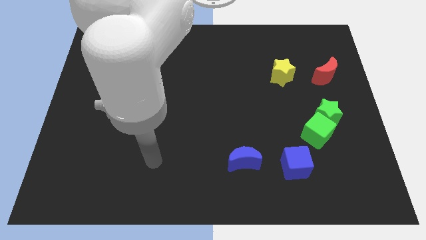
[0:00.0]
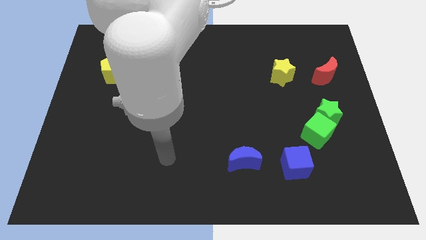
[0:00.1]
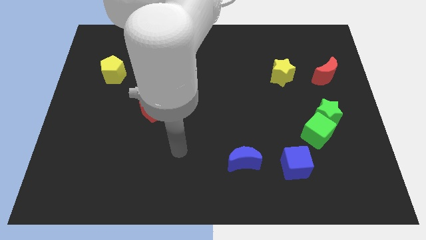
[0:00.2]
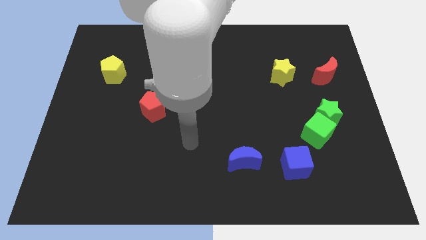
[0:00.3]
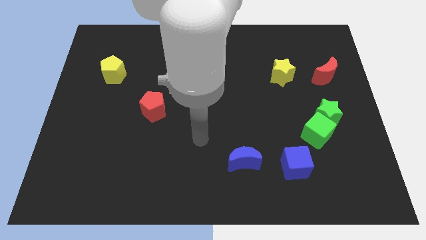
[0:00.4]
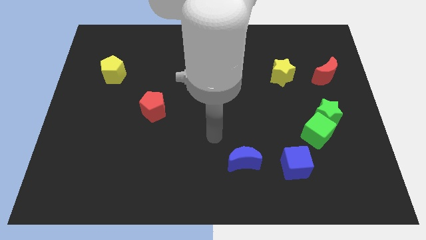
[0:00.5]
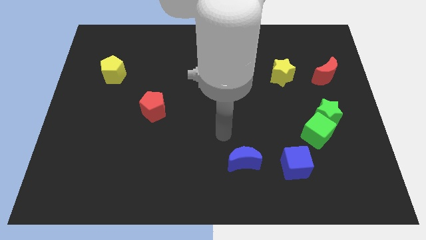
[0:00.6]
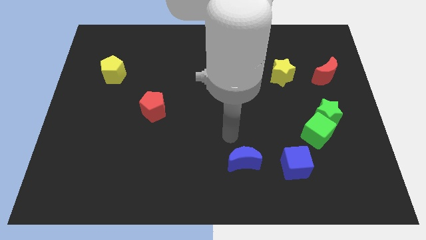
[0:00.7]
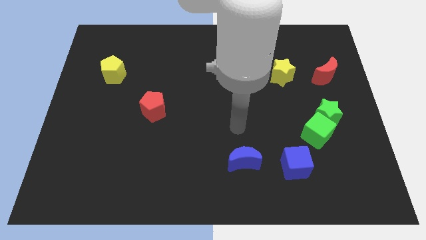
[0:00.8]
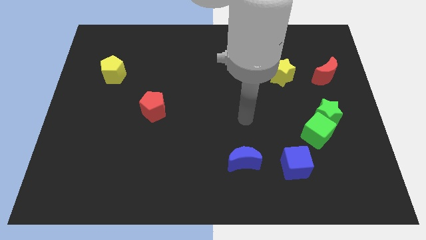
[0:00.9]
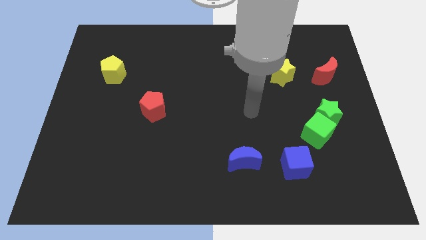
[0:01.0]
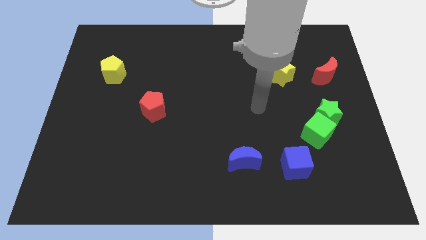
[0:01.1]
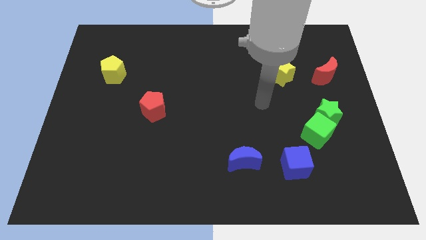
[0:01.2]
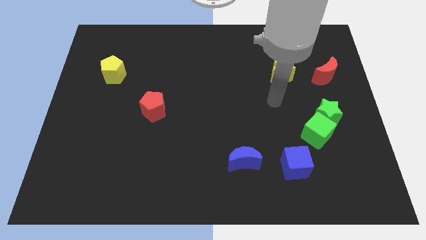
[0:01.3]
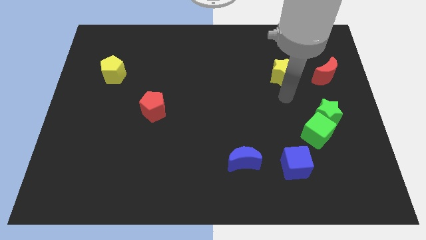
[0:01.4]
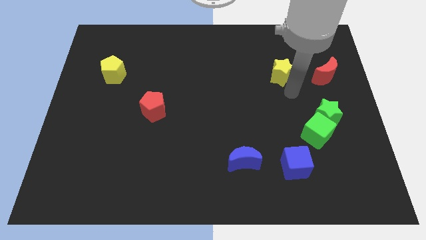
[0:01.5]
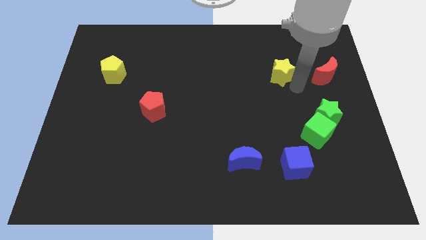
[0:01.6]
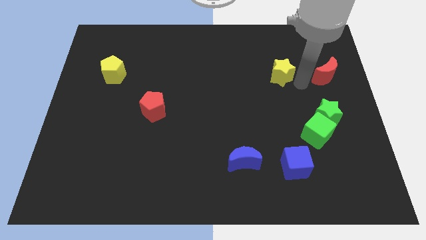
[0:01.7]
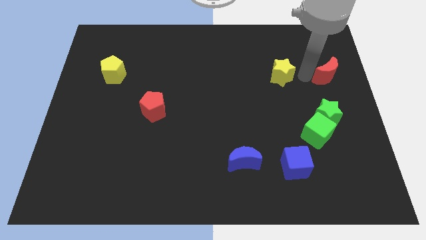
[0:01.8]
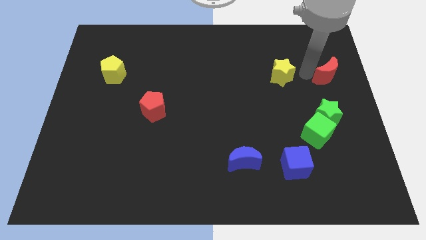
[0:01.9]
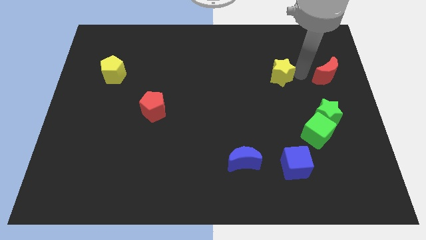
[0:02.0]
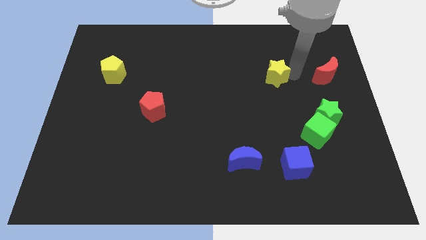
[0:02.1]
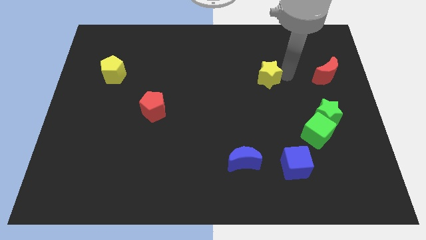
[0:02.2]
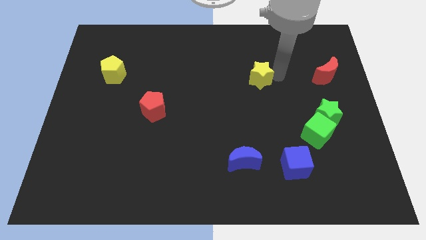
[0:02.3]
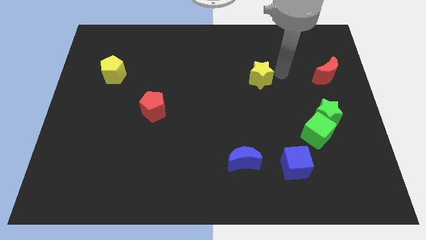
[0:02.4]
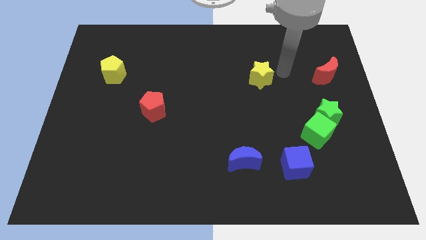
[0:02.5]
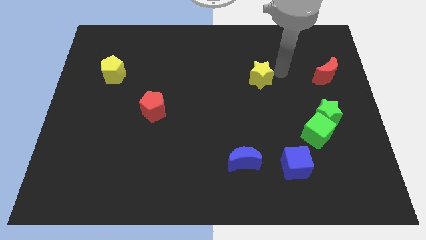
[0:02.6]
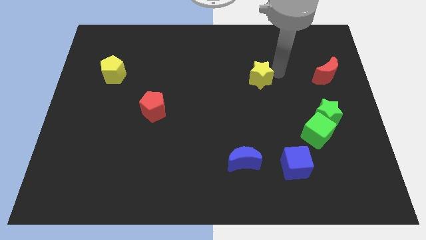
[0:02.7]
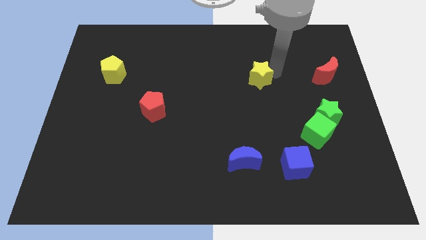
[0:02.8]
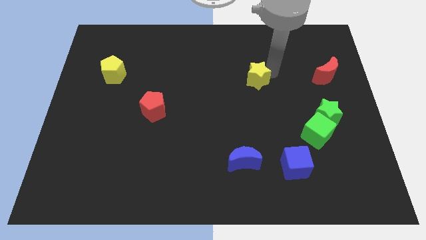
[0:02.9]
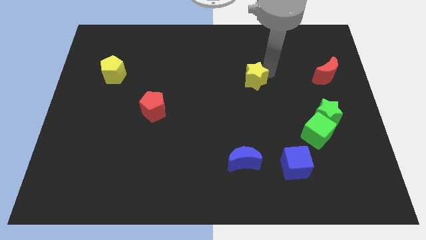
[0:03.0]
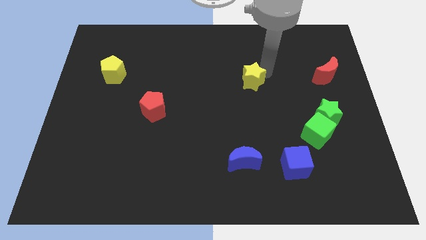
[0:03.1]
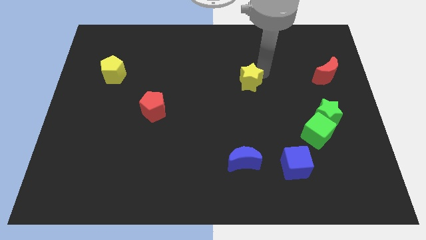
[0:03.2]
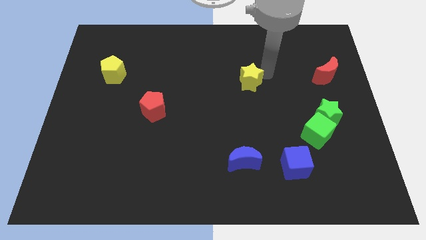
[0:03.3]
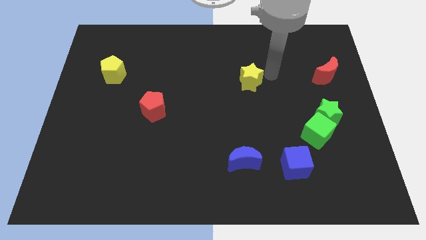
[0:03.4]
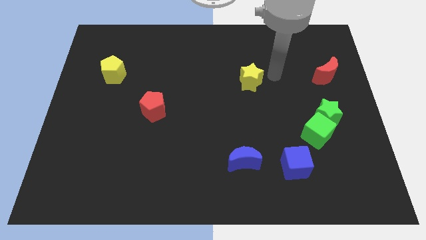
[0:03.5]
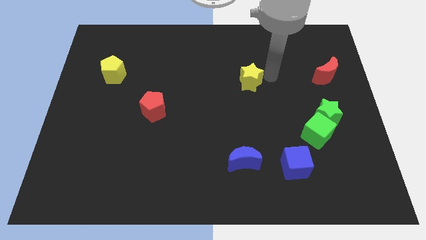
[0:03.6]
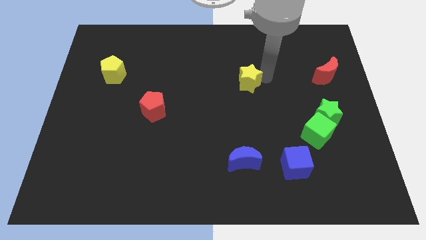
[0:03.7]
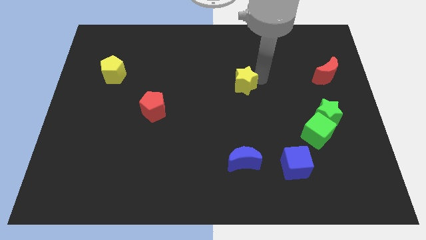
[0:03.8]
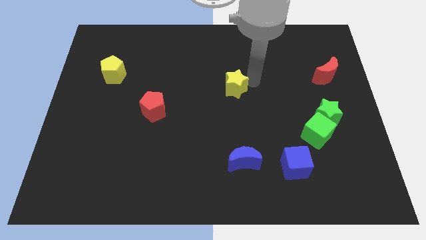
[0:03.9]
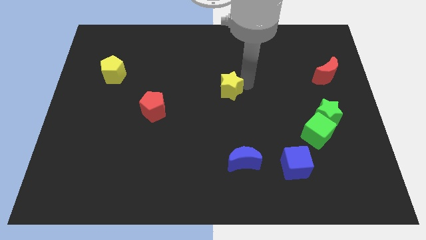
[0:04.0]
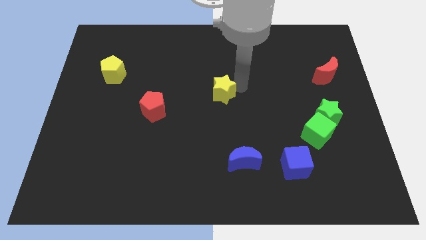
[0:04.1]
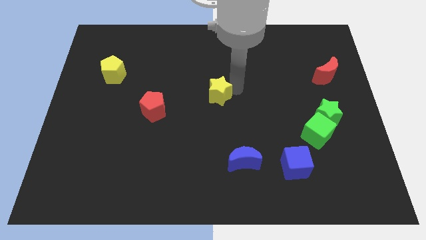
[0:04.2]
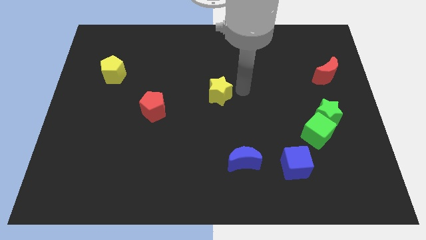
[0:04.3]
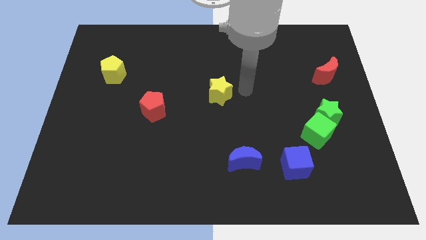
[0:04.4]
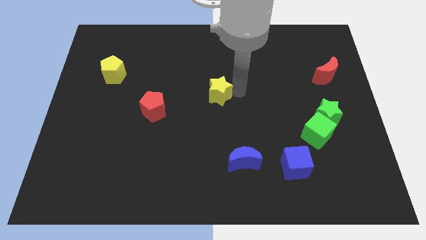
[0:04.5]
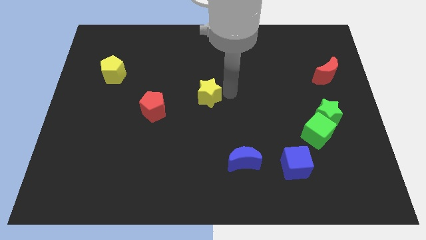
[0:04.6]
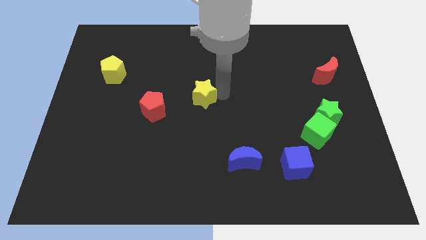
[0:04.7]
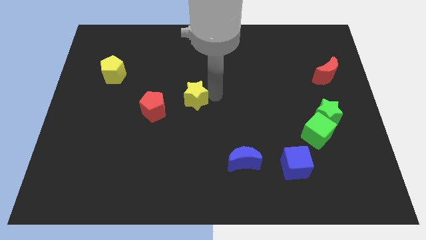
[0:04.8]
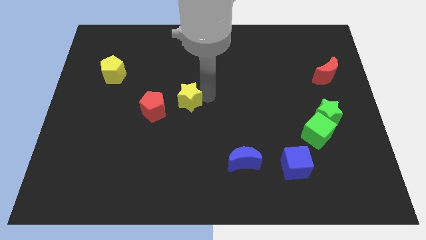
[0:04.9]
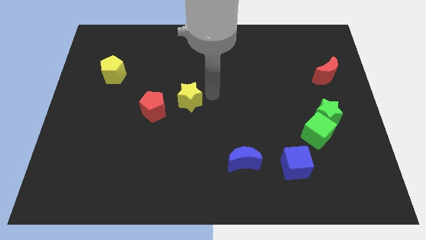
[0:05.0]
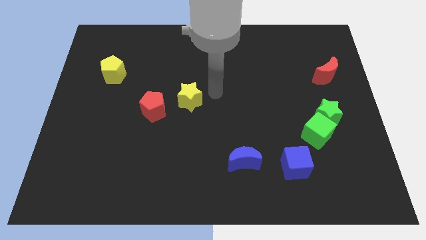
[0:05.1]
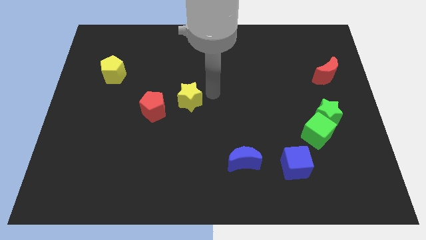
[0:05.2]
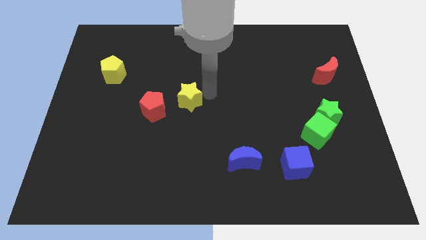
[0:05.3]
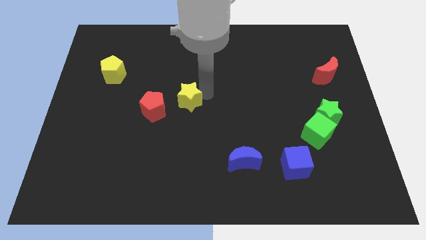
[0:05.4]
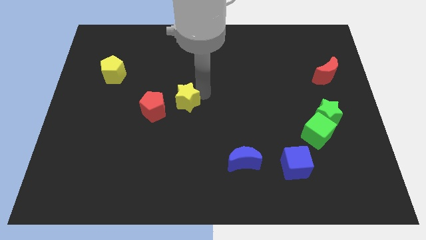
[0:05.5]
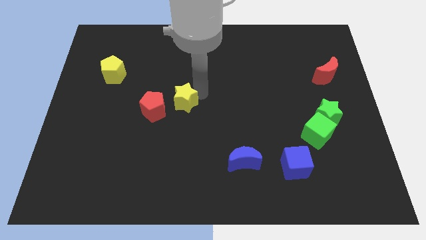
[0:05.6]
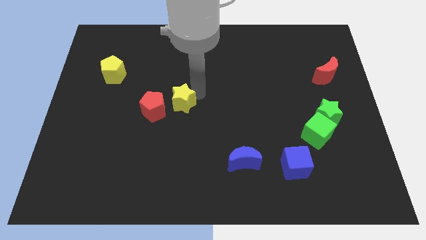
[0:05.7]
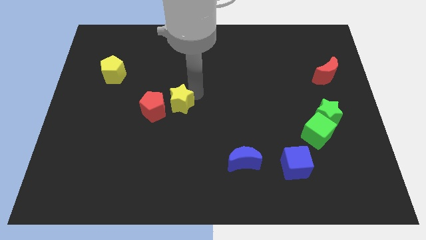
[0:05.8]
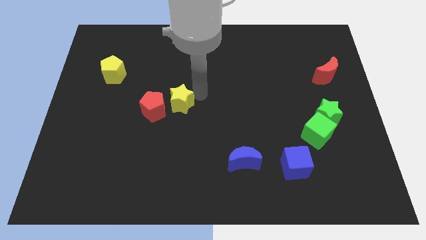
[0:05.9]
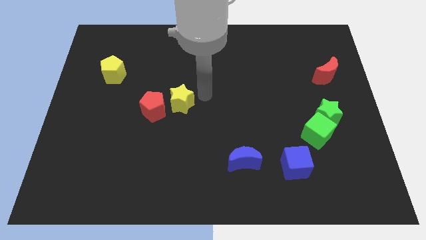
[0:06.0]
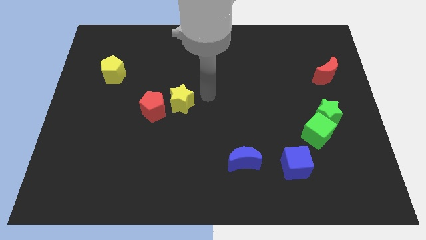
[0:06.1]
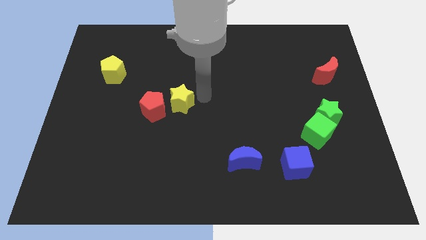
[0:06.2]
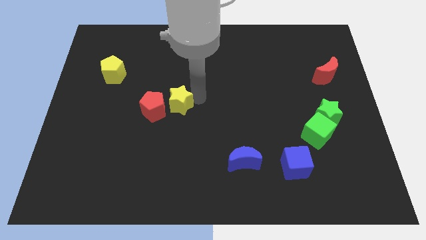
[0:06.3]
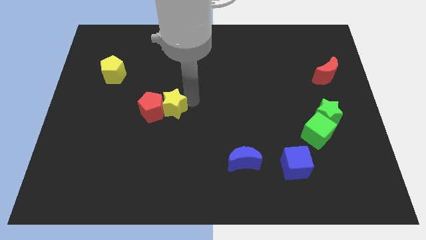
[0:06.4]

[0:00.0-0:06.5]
slide the yellow star close to the red pentagon

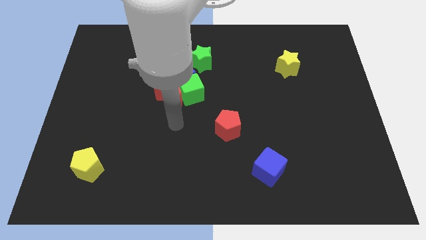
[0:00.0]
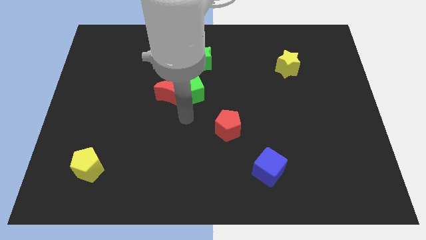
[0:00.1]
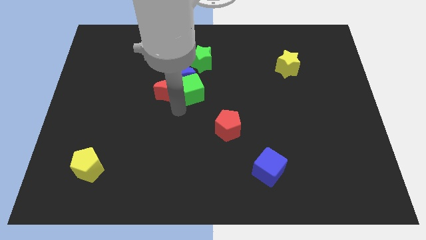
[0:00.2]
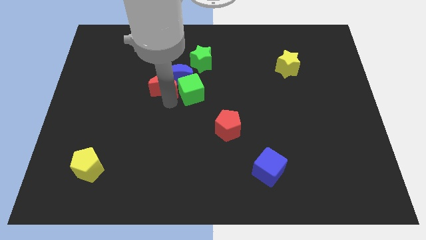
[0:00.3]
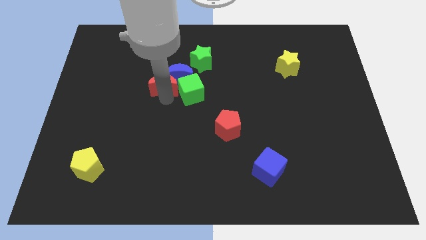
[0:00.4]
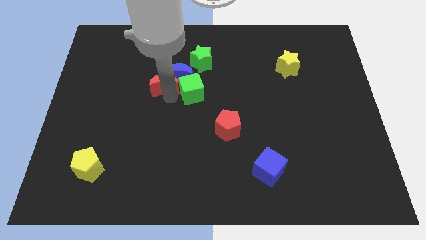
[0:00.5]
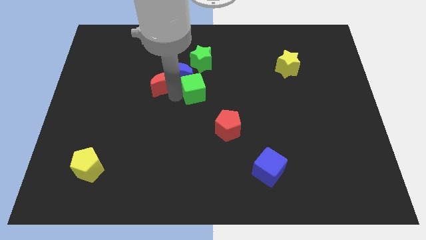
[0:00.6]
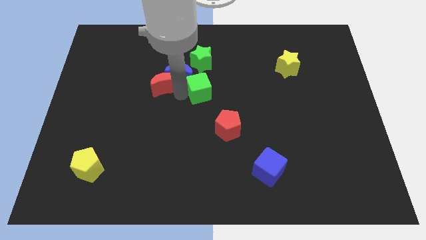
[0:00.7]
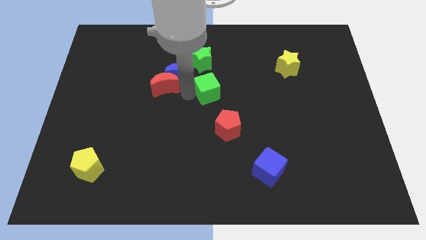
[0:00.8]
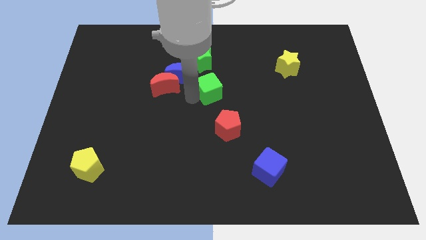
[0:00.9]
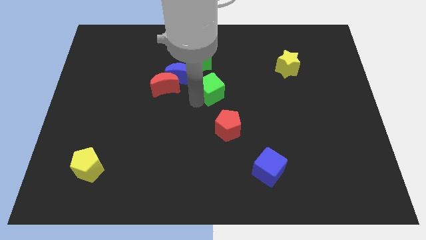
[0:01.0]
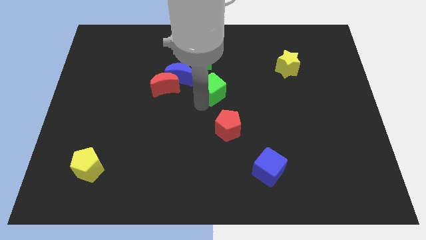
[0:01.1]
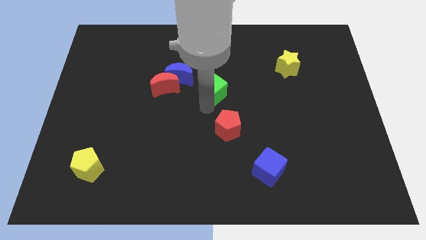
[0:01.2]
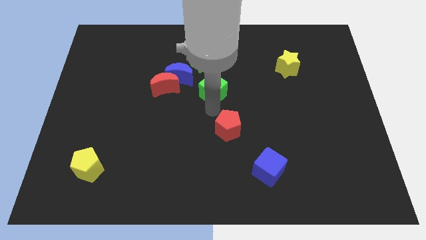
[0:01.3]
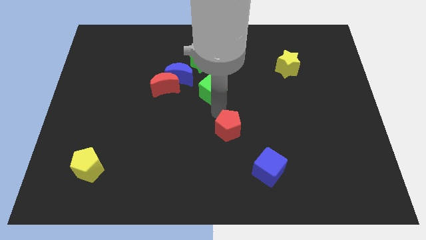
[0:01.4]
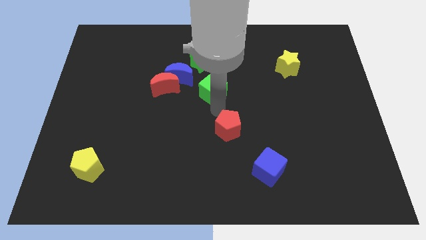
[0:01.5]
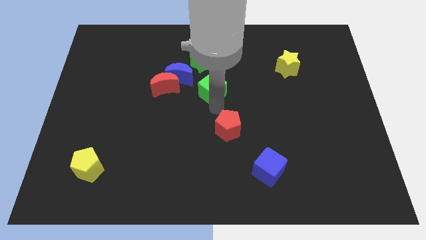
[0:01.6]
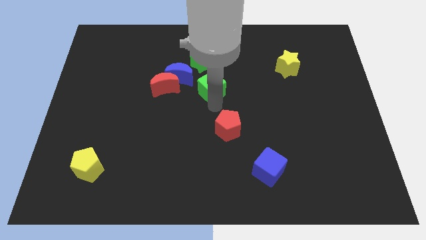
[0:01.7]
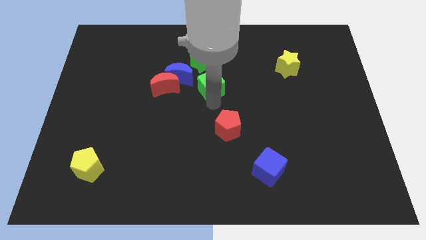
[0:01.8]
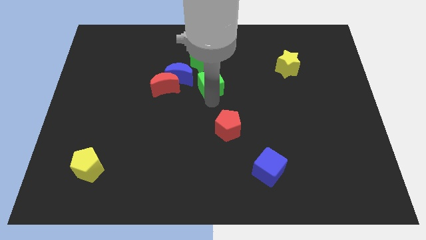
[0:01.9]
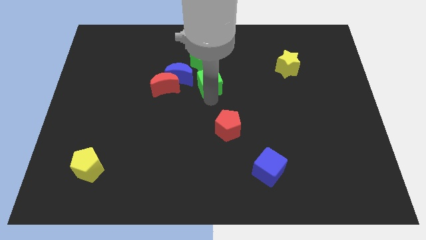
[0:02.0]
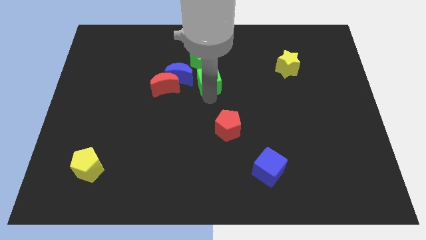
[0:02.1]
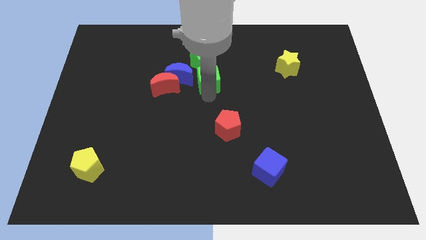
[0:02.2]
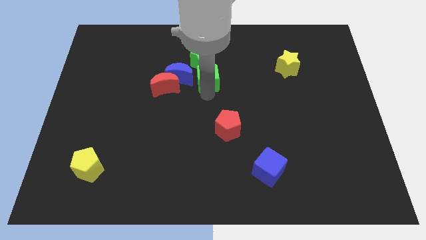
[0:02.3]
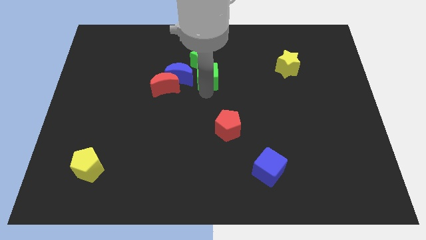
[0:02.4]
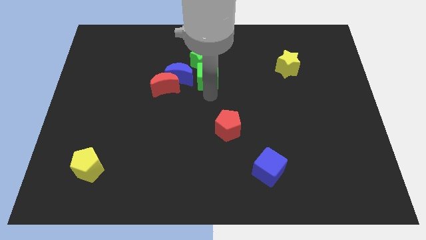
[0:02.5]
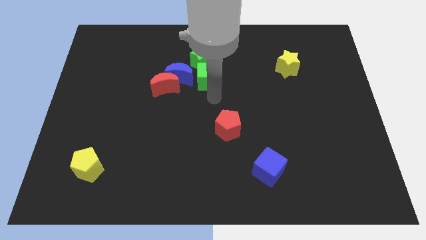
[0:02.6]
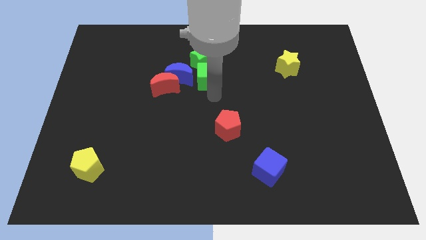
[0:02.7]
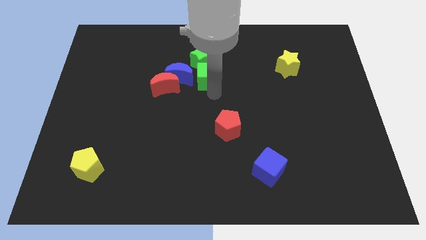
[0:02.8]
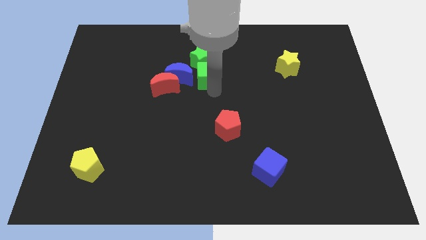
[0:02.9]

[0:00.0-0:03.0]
put the green cube towards the green star
